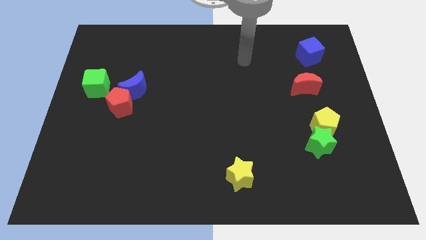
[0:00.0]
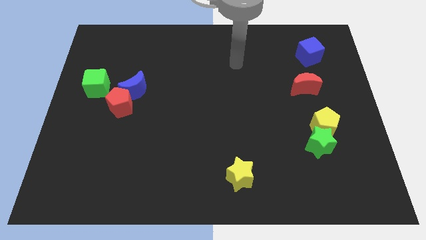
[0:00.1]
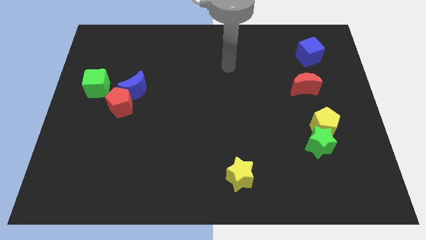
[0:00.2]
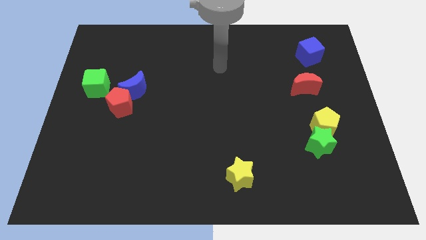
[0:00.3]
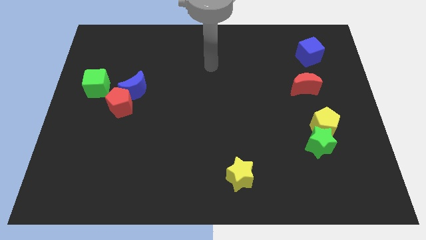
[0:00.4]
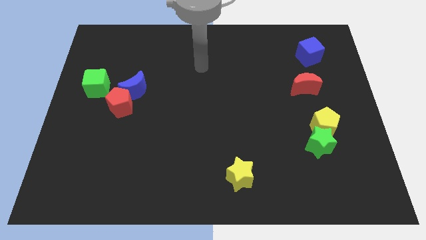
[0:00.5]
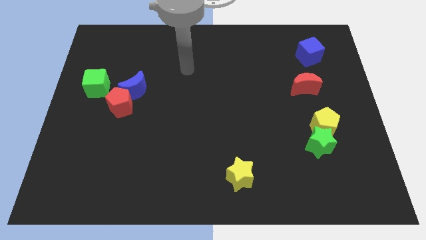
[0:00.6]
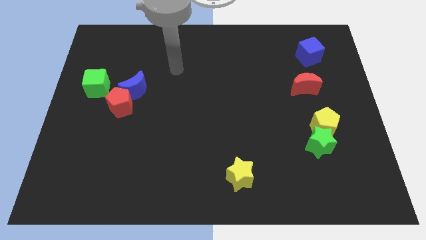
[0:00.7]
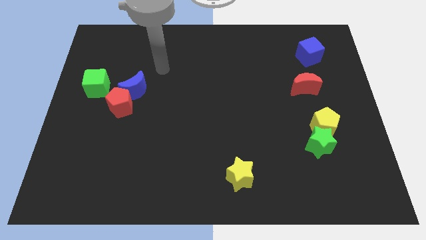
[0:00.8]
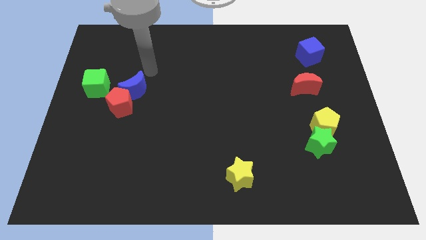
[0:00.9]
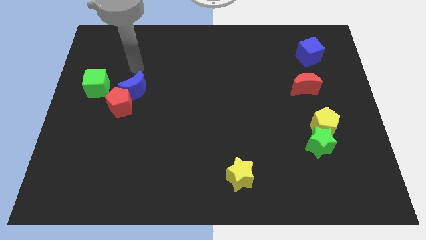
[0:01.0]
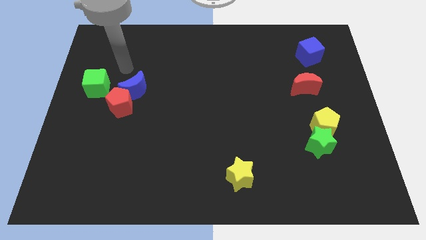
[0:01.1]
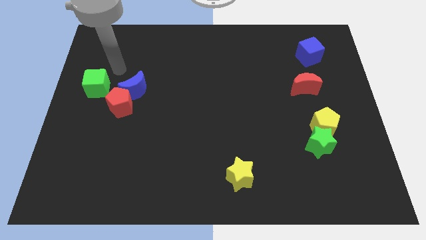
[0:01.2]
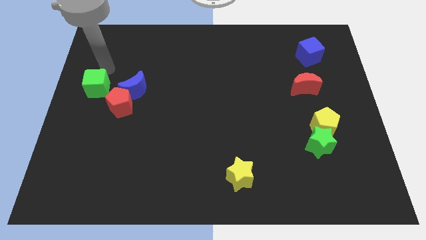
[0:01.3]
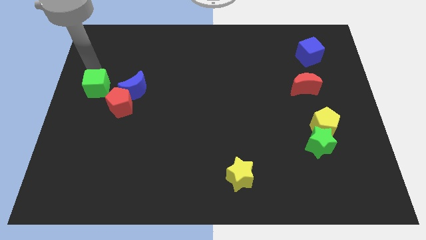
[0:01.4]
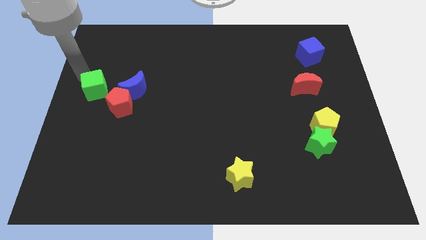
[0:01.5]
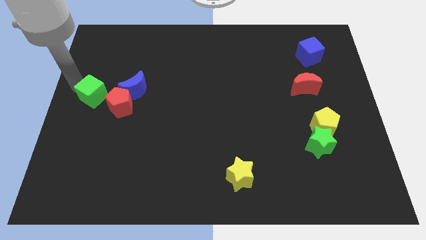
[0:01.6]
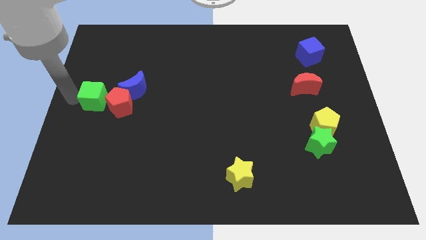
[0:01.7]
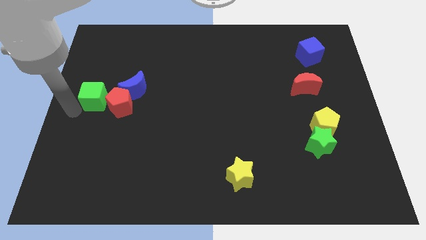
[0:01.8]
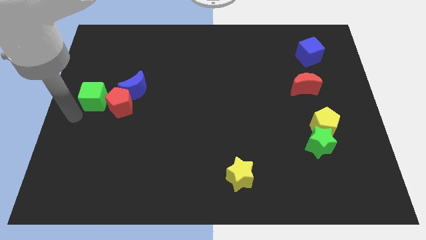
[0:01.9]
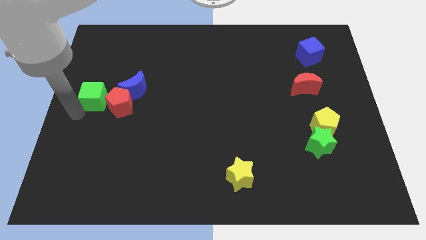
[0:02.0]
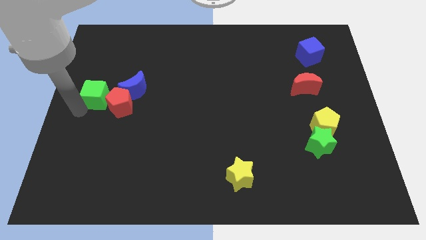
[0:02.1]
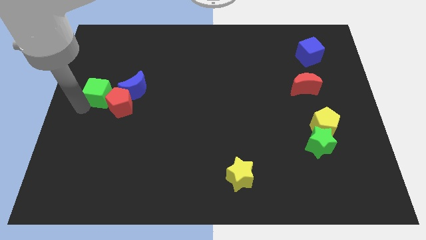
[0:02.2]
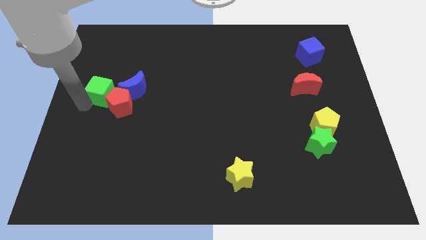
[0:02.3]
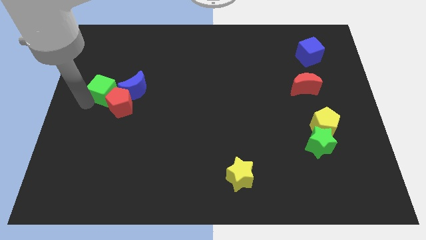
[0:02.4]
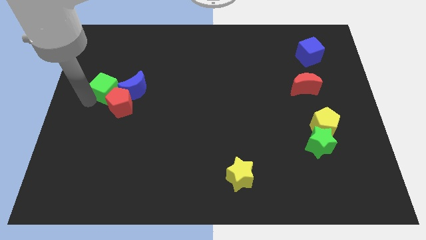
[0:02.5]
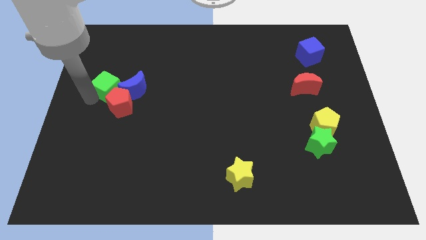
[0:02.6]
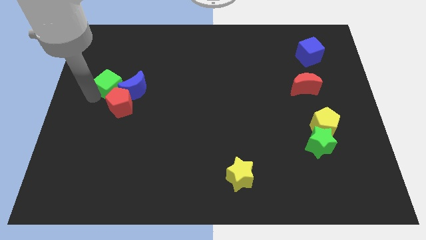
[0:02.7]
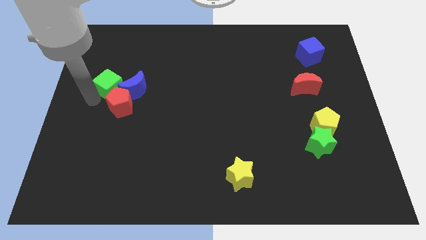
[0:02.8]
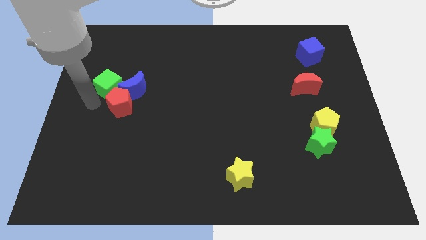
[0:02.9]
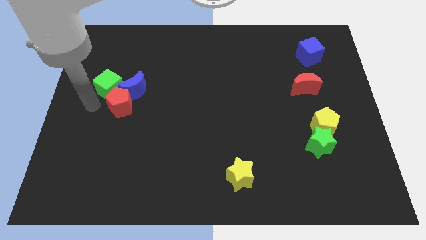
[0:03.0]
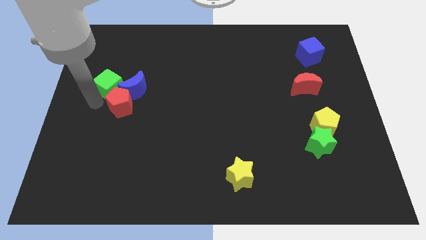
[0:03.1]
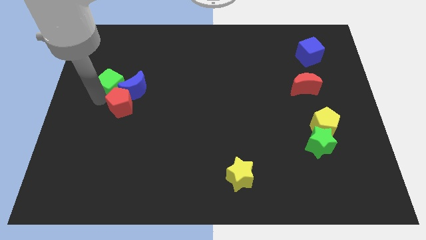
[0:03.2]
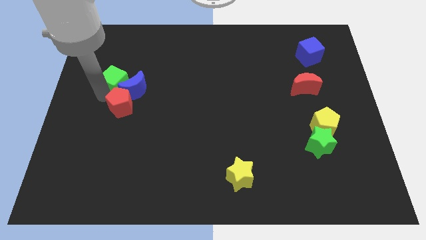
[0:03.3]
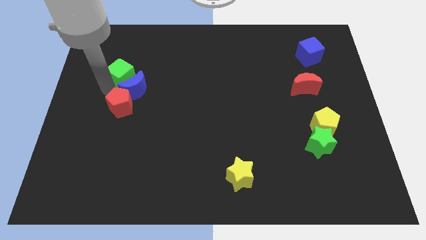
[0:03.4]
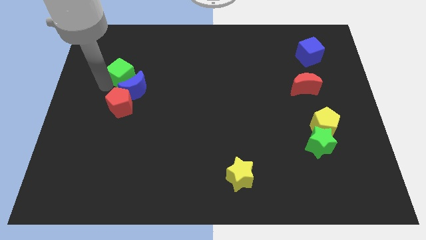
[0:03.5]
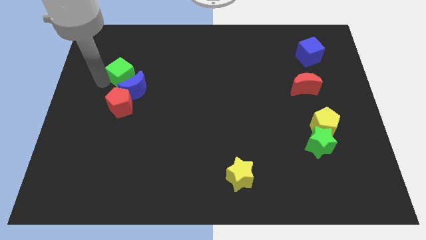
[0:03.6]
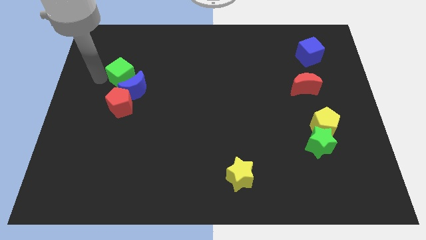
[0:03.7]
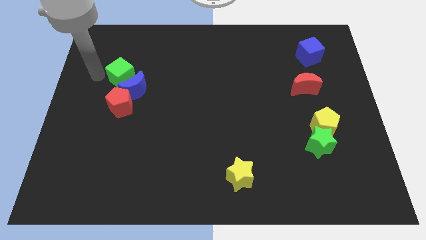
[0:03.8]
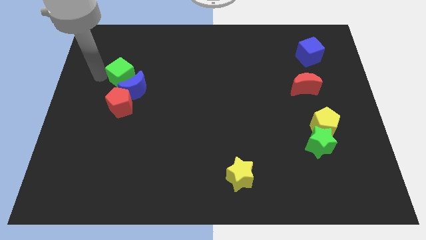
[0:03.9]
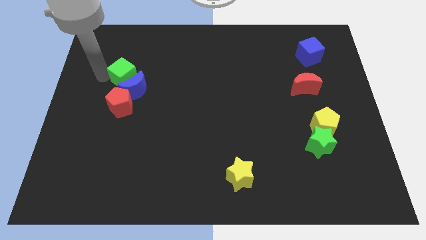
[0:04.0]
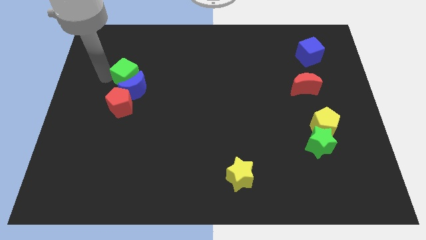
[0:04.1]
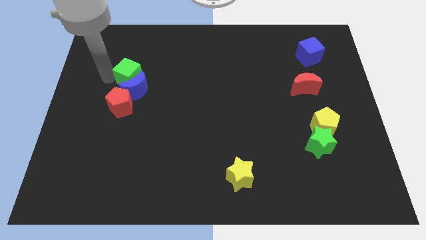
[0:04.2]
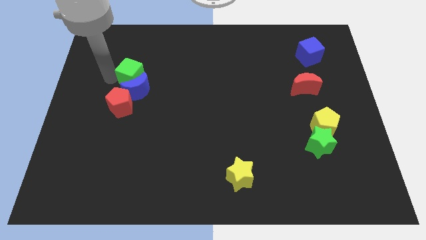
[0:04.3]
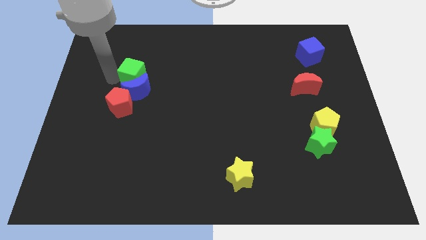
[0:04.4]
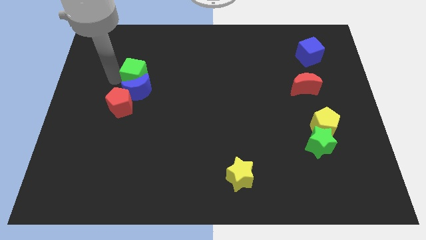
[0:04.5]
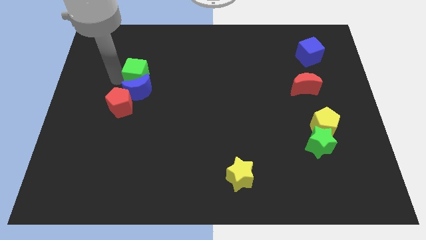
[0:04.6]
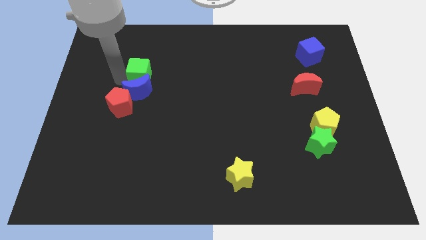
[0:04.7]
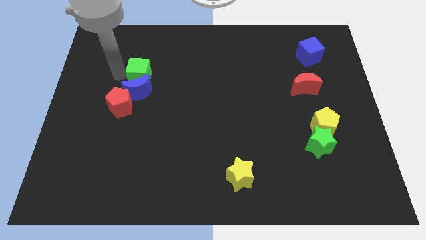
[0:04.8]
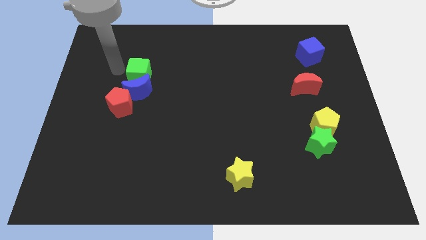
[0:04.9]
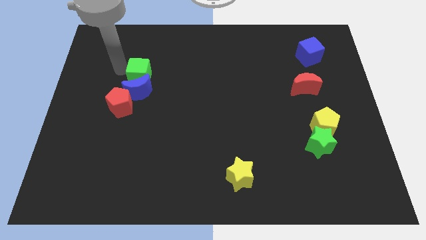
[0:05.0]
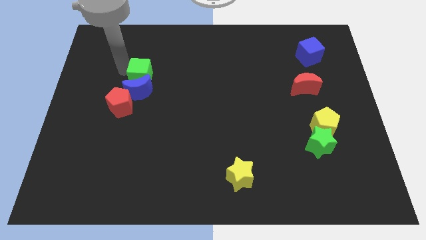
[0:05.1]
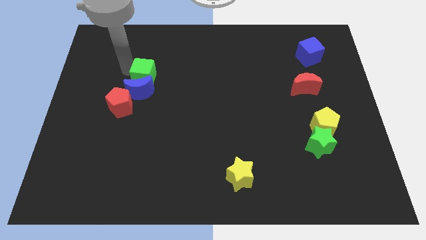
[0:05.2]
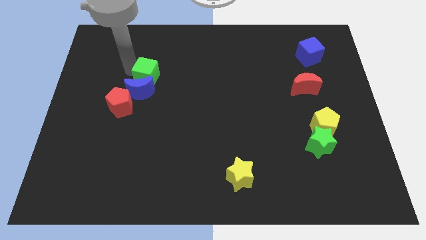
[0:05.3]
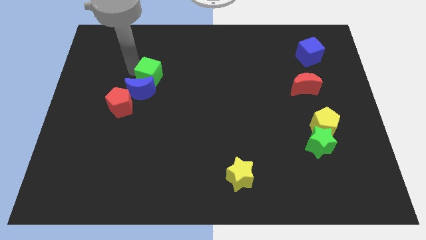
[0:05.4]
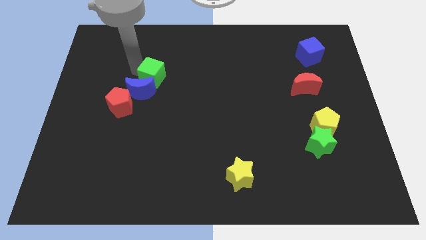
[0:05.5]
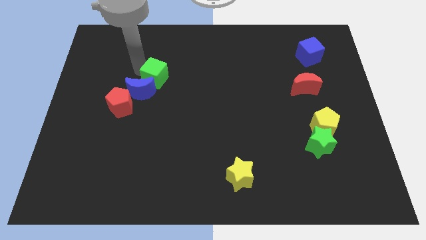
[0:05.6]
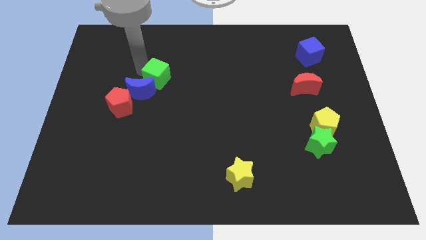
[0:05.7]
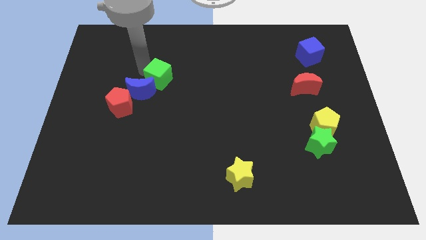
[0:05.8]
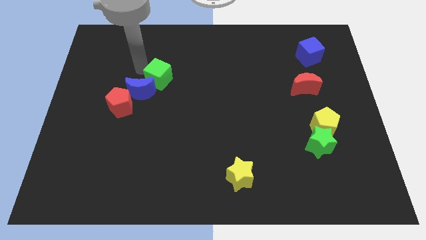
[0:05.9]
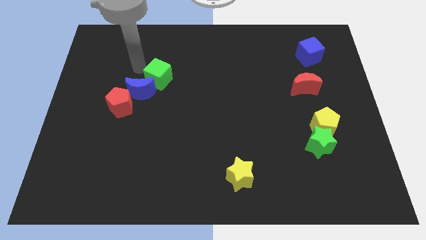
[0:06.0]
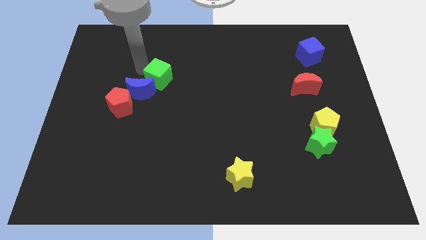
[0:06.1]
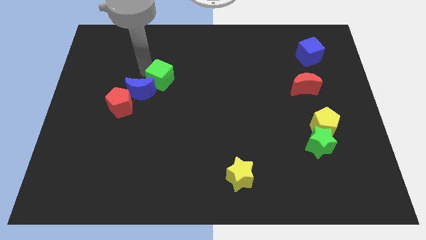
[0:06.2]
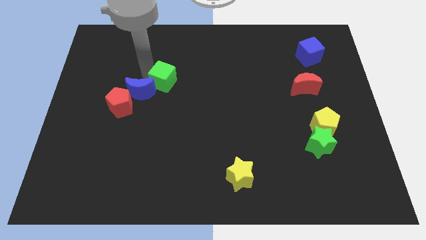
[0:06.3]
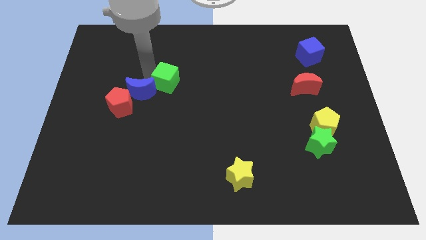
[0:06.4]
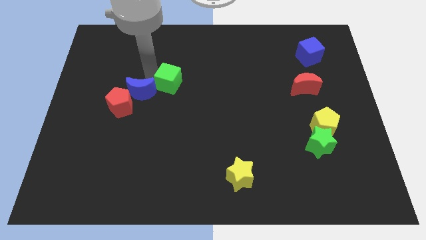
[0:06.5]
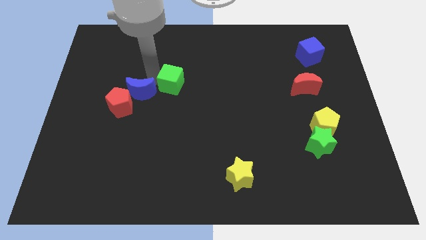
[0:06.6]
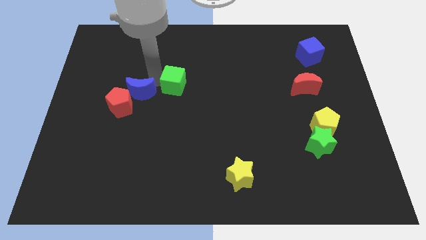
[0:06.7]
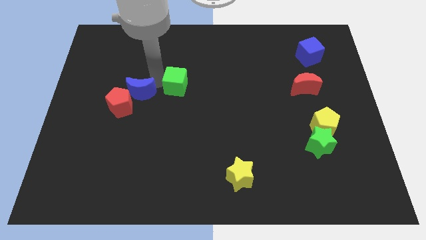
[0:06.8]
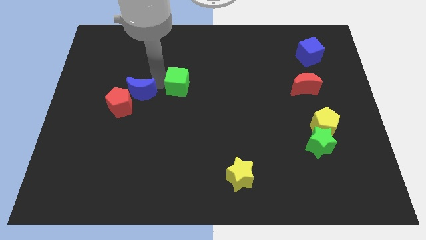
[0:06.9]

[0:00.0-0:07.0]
move the green cube to the right

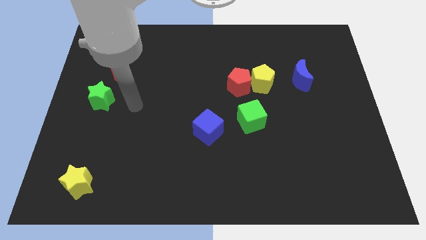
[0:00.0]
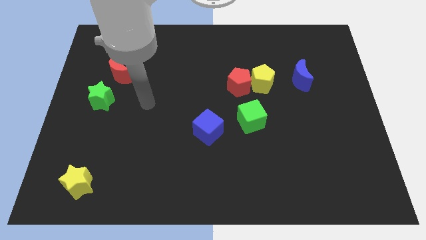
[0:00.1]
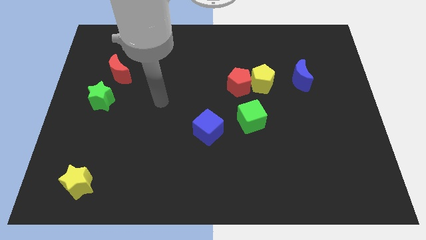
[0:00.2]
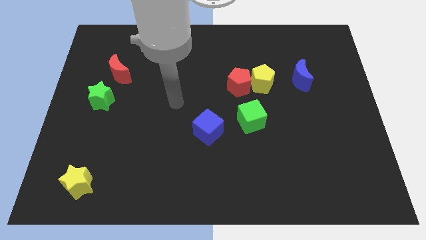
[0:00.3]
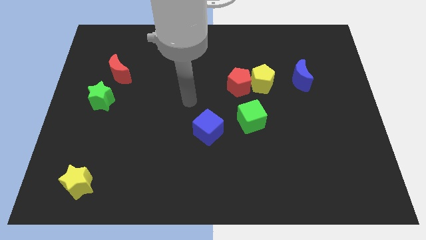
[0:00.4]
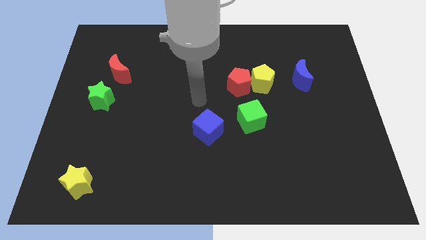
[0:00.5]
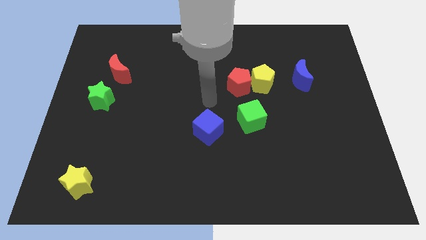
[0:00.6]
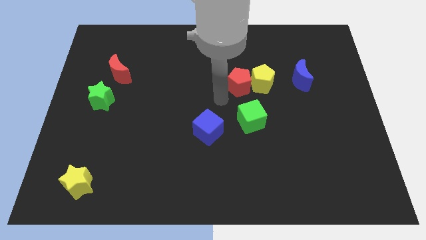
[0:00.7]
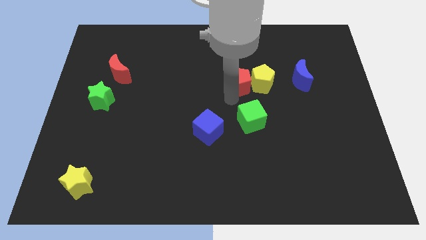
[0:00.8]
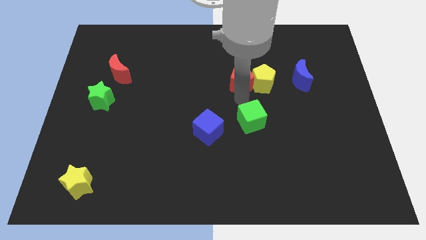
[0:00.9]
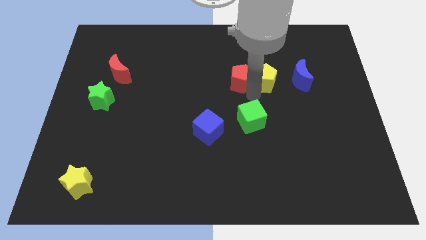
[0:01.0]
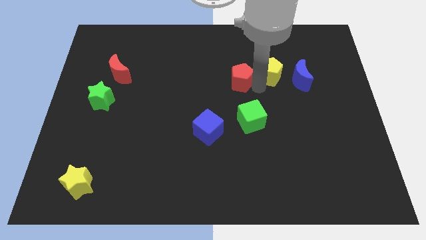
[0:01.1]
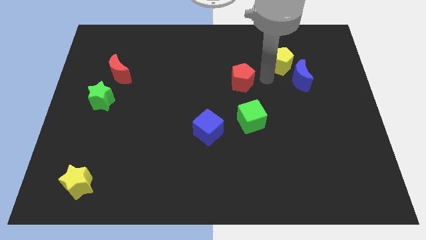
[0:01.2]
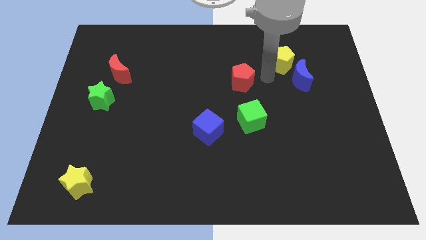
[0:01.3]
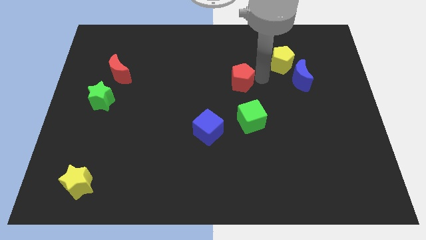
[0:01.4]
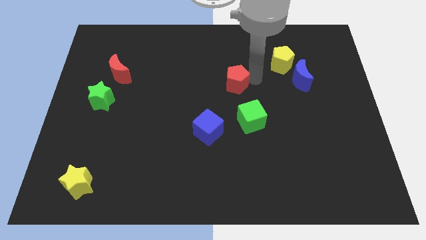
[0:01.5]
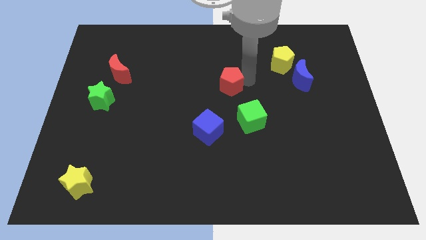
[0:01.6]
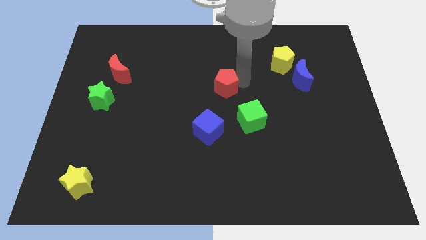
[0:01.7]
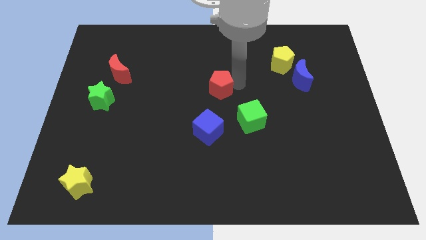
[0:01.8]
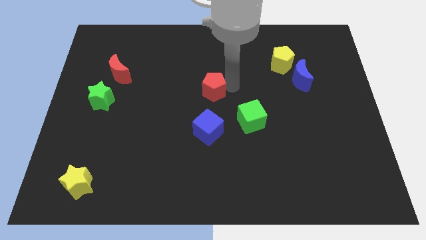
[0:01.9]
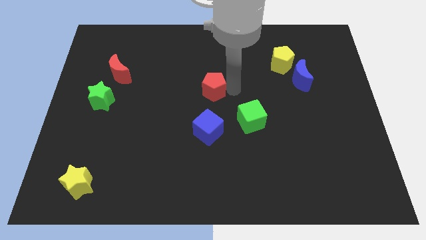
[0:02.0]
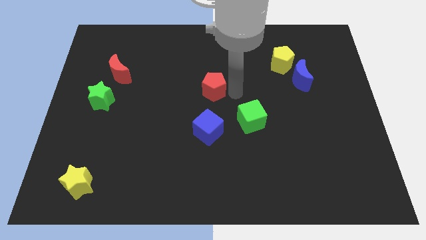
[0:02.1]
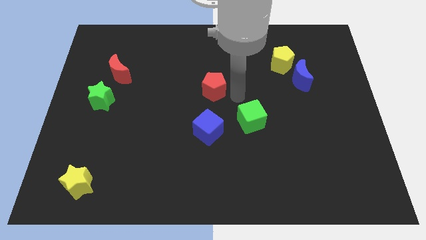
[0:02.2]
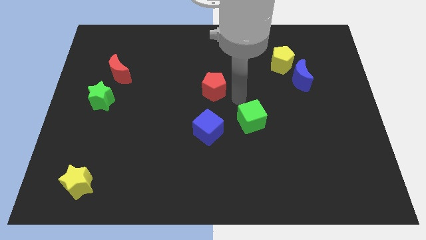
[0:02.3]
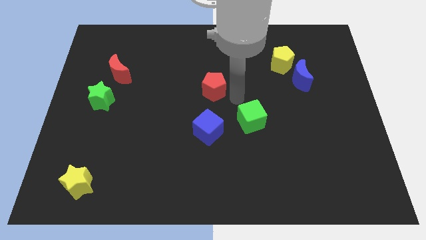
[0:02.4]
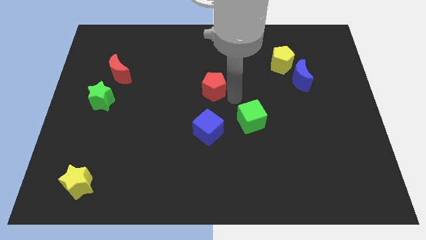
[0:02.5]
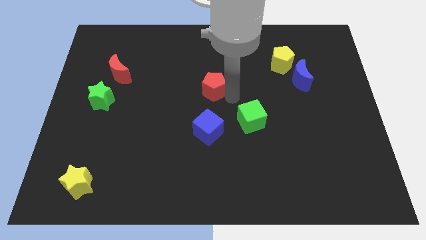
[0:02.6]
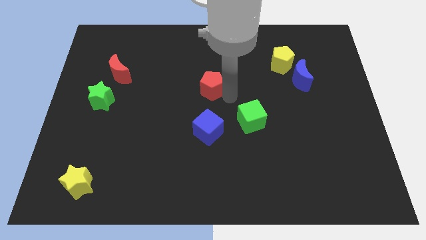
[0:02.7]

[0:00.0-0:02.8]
push the red pentagon left a little bit
